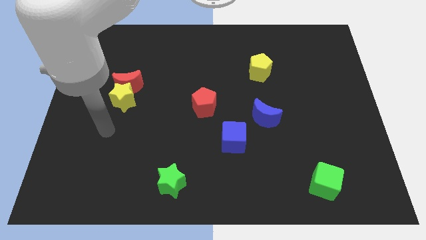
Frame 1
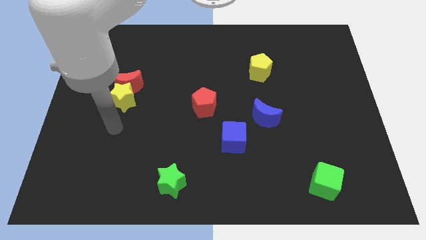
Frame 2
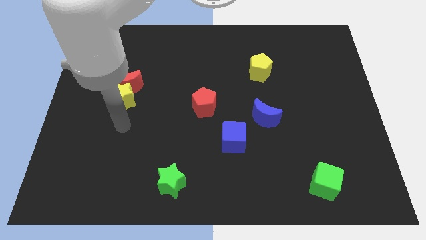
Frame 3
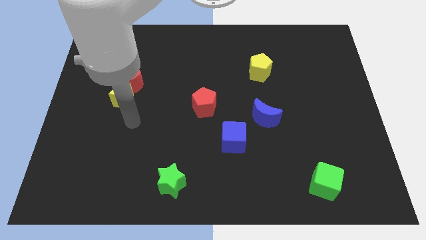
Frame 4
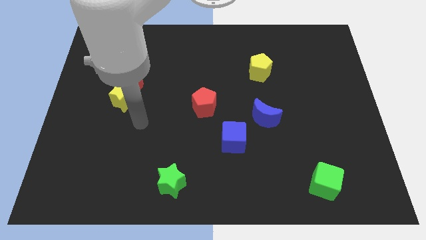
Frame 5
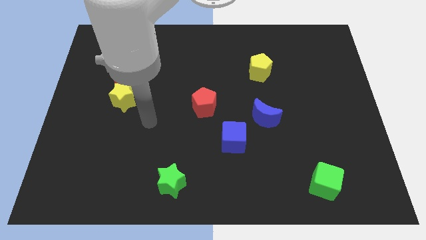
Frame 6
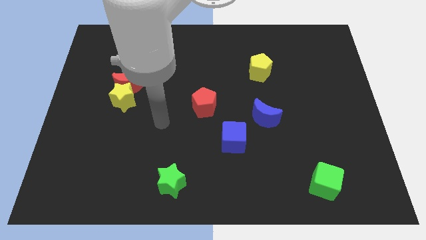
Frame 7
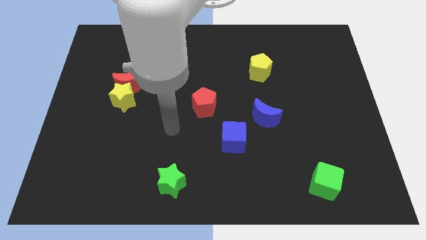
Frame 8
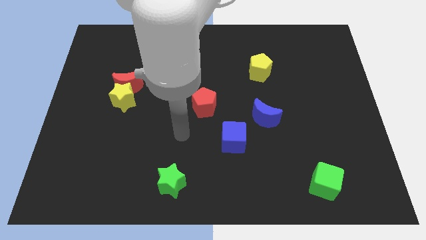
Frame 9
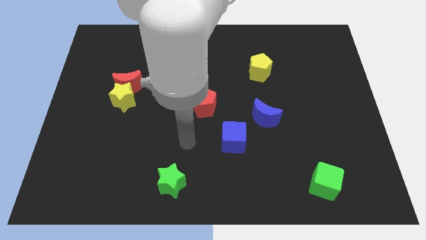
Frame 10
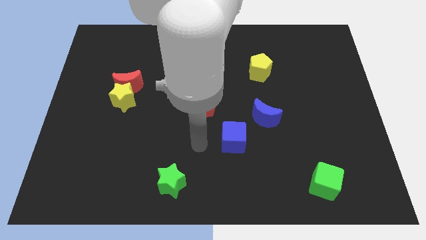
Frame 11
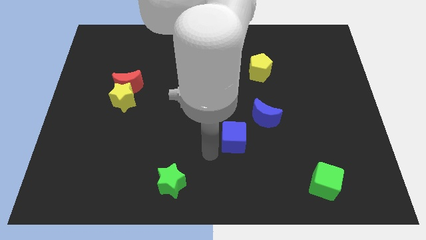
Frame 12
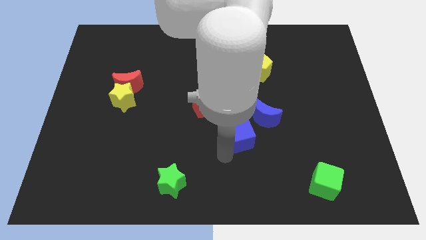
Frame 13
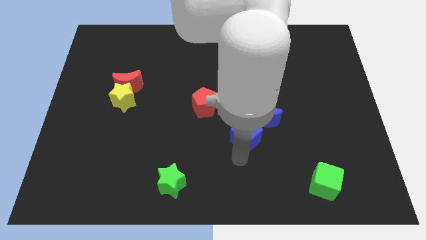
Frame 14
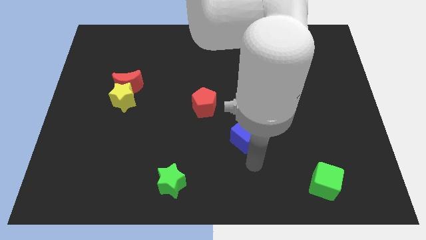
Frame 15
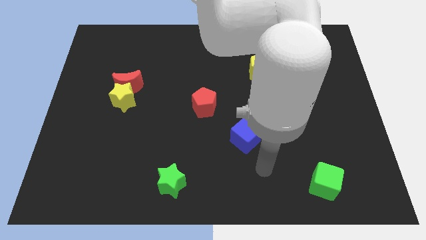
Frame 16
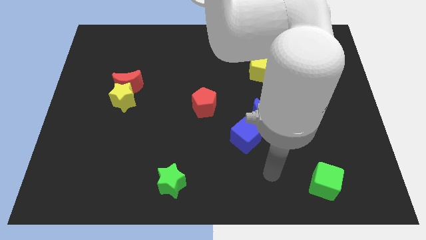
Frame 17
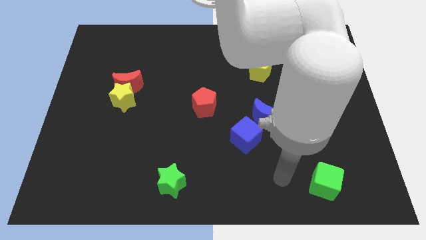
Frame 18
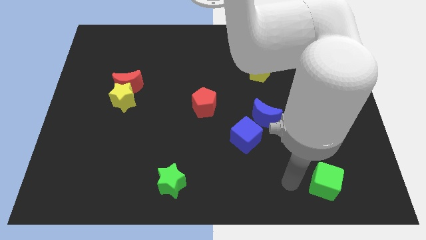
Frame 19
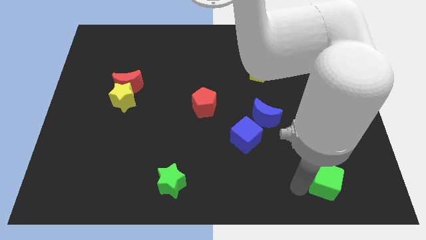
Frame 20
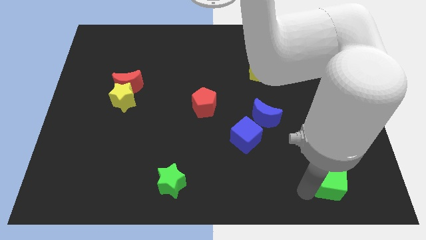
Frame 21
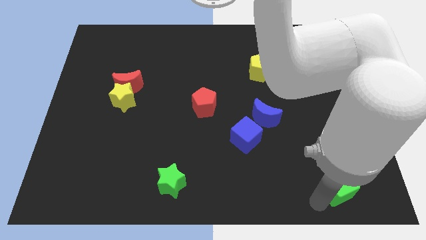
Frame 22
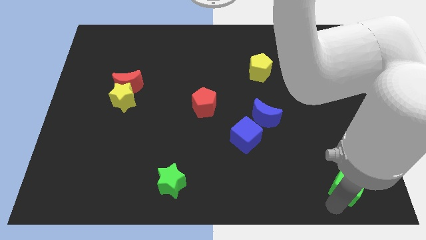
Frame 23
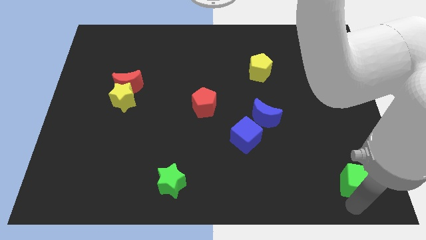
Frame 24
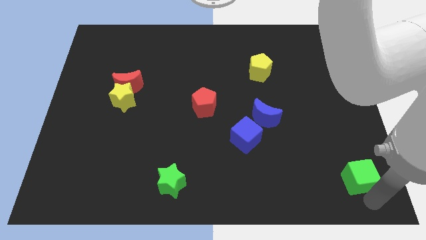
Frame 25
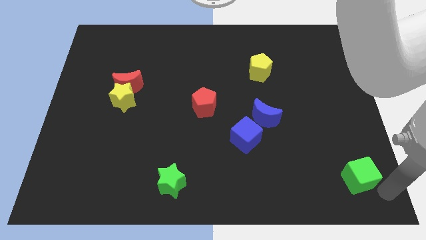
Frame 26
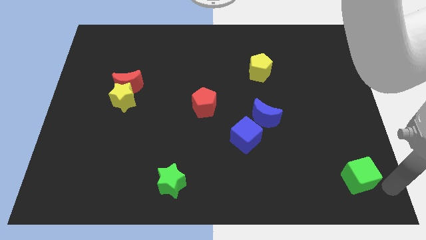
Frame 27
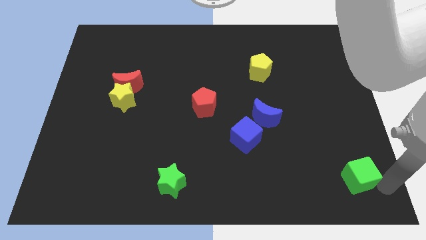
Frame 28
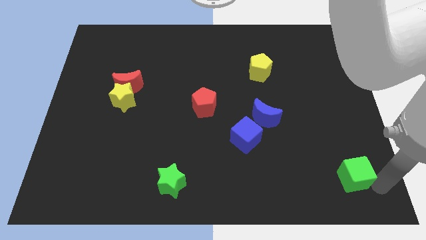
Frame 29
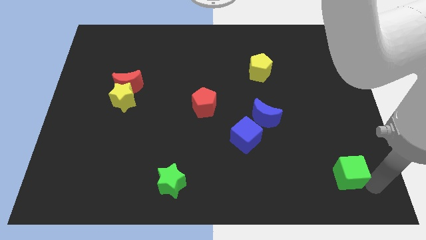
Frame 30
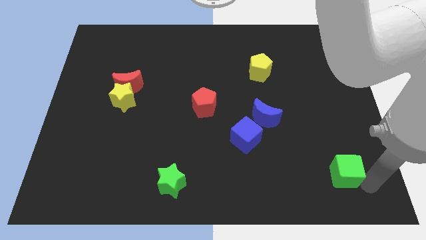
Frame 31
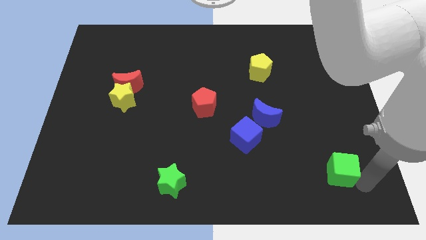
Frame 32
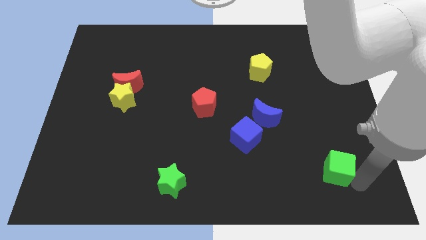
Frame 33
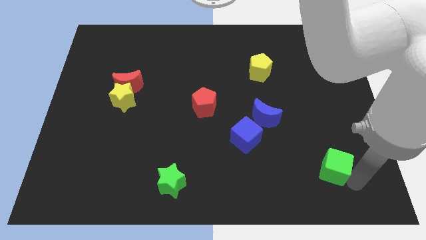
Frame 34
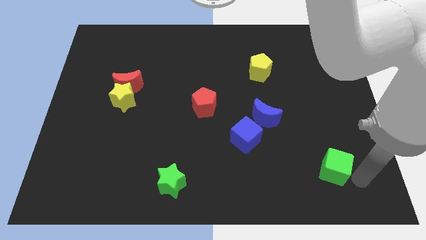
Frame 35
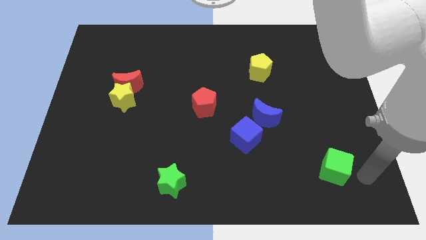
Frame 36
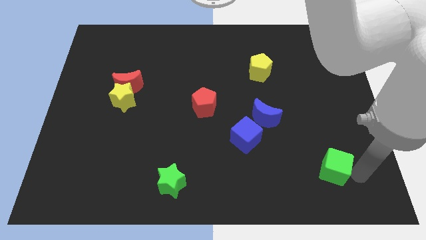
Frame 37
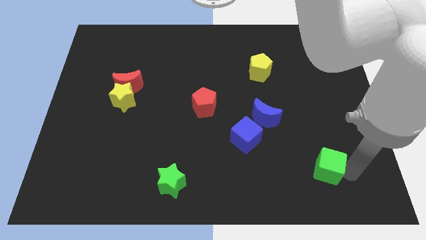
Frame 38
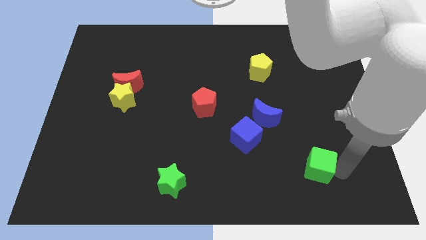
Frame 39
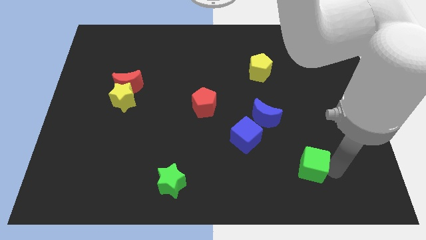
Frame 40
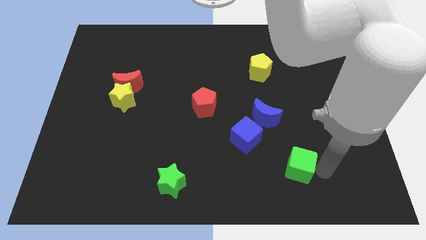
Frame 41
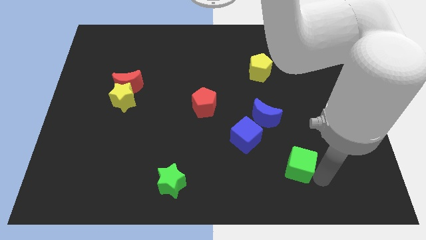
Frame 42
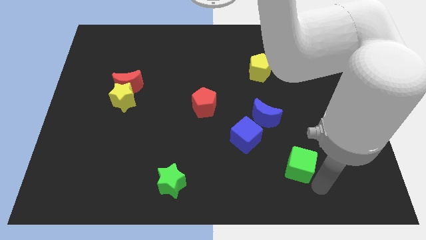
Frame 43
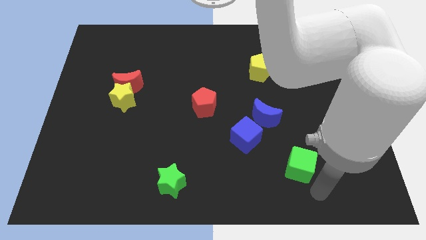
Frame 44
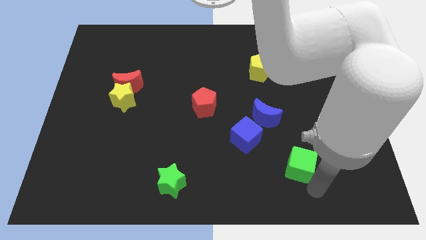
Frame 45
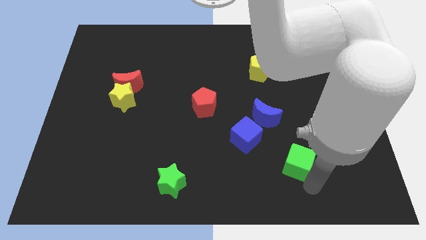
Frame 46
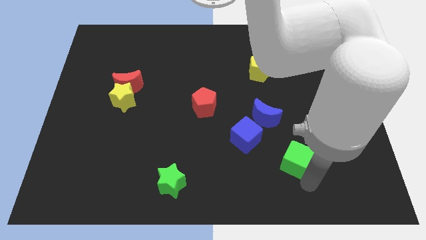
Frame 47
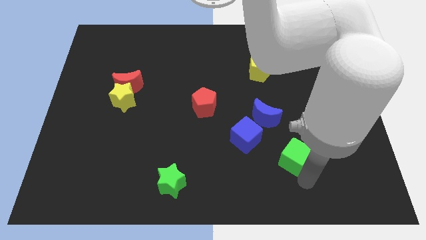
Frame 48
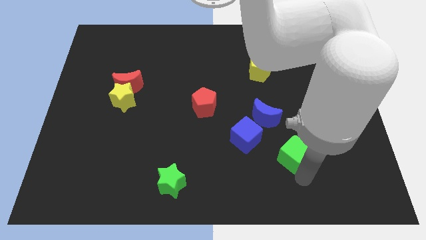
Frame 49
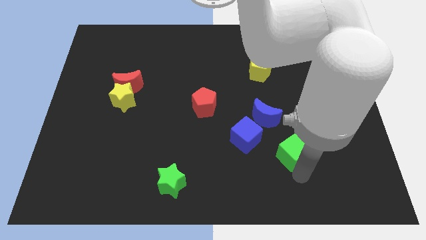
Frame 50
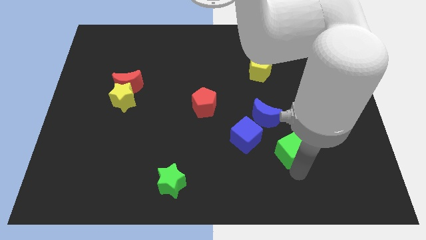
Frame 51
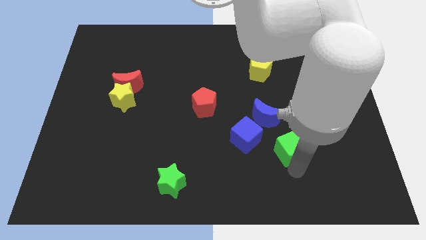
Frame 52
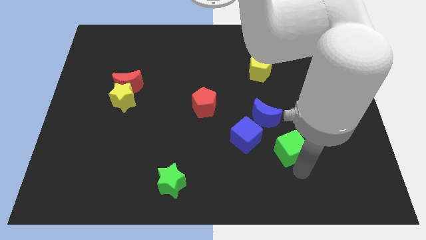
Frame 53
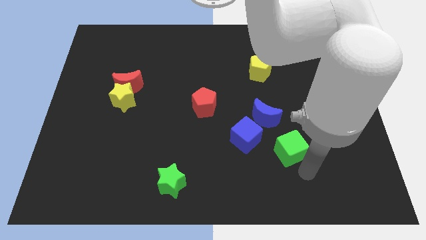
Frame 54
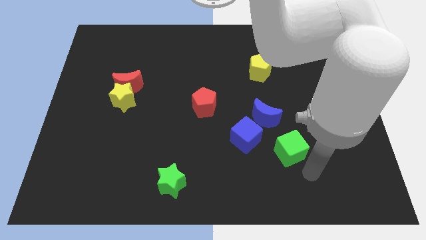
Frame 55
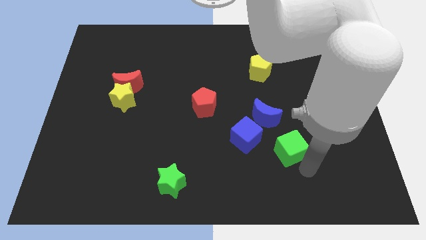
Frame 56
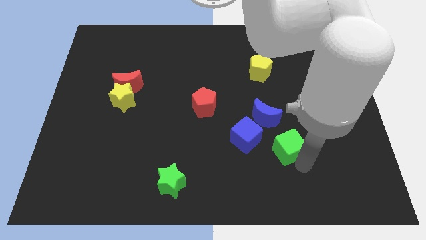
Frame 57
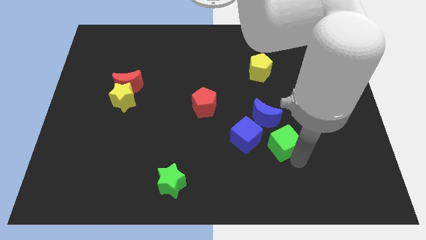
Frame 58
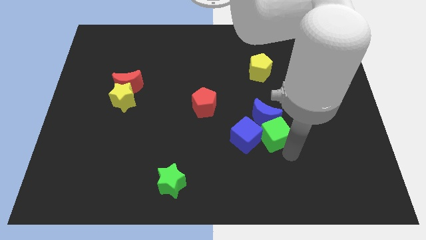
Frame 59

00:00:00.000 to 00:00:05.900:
put the green cube next to the blue moon

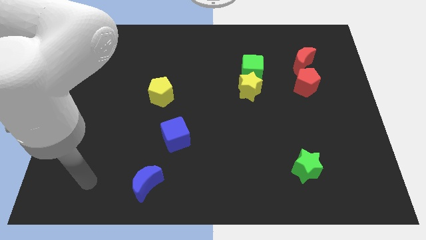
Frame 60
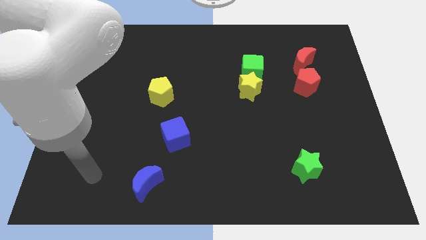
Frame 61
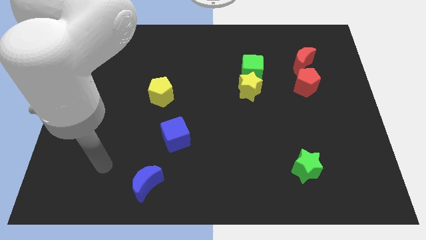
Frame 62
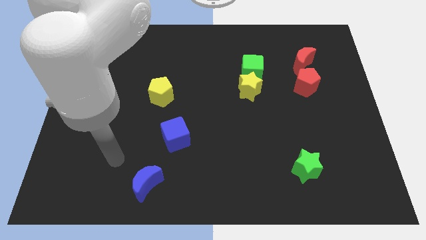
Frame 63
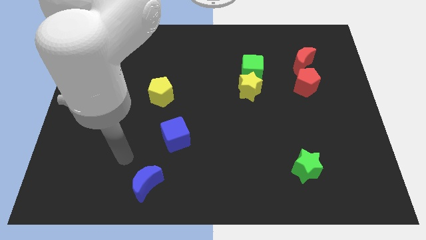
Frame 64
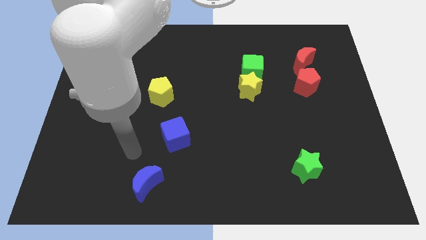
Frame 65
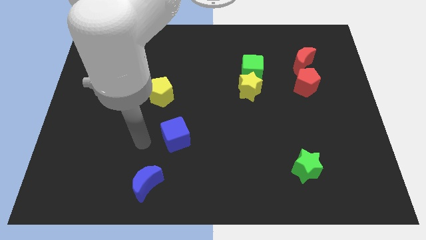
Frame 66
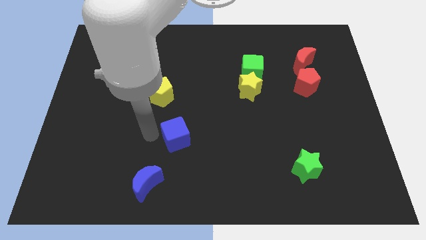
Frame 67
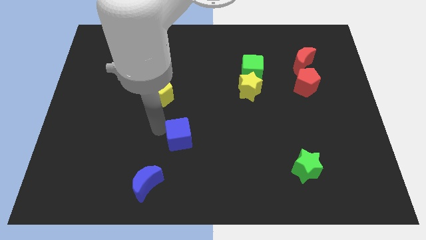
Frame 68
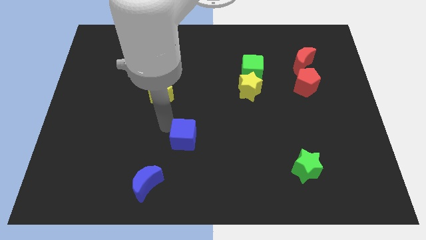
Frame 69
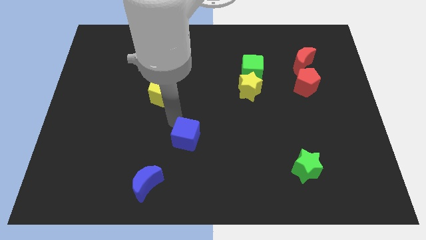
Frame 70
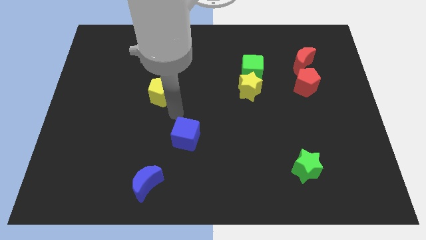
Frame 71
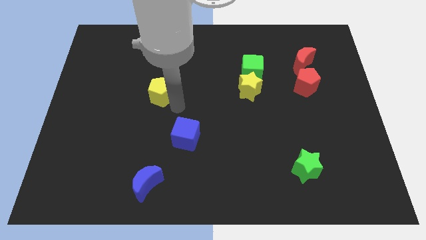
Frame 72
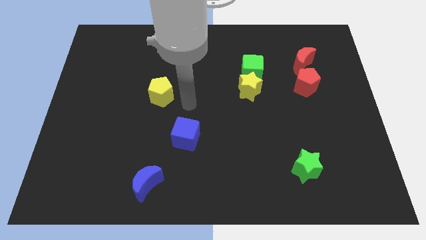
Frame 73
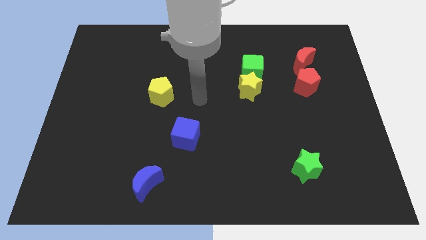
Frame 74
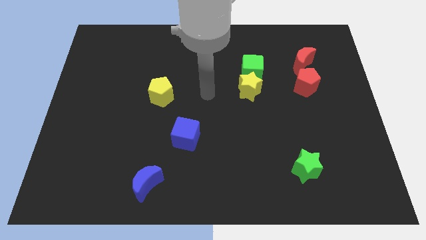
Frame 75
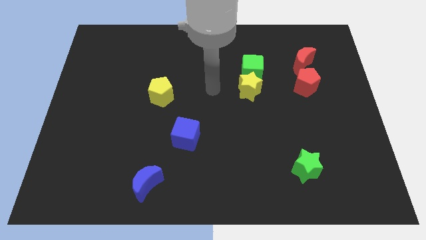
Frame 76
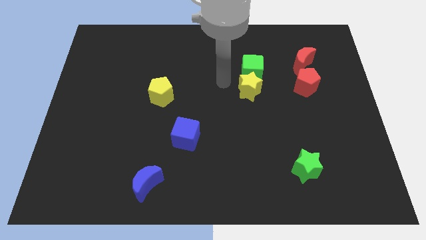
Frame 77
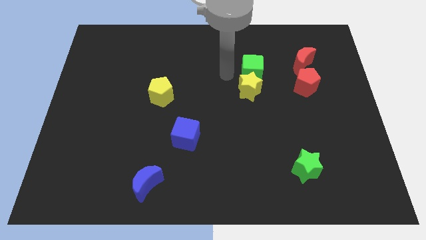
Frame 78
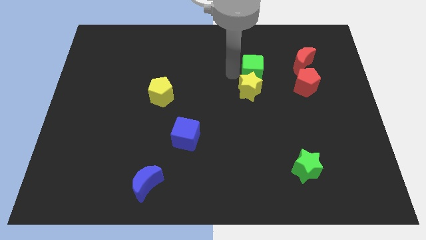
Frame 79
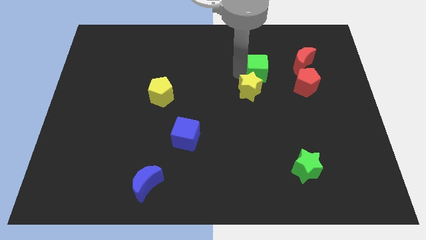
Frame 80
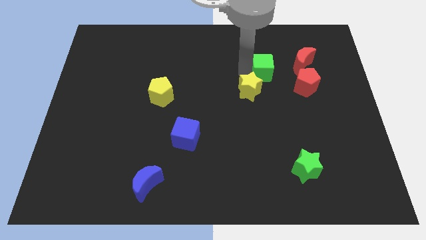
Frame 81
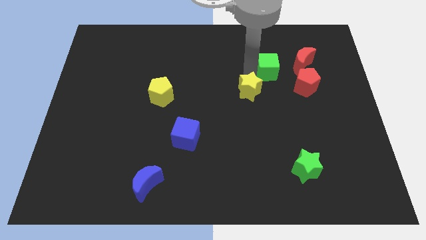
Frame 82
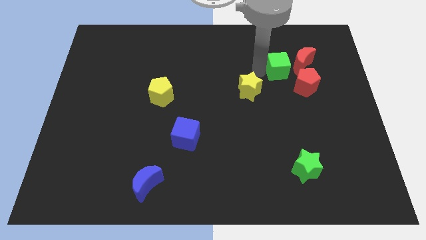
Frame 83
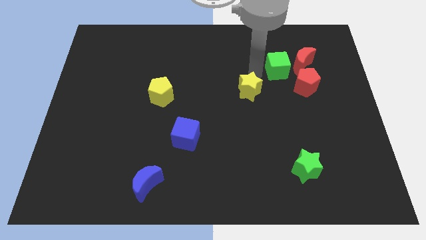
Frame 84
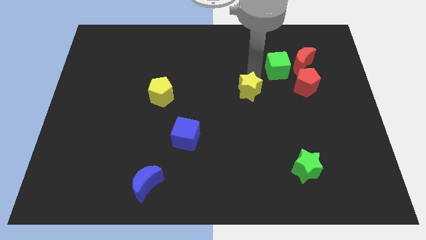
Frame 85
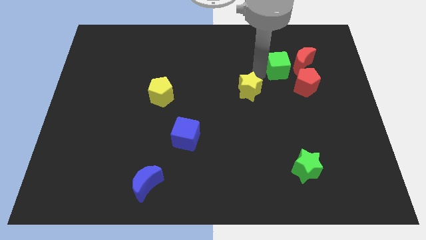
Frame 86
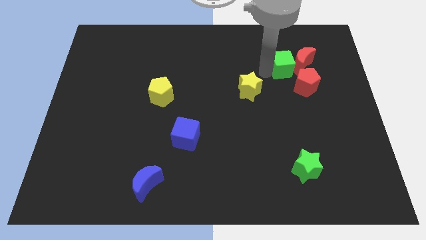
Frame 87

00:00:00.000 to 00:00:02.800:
push the green cube towards the red moon
